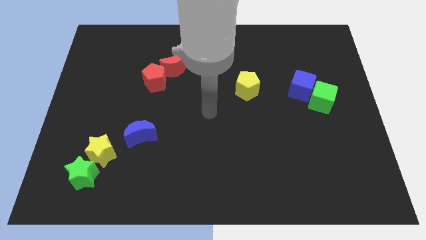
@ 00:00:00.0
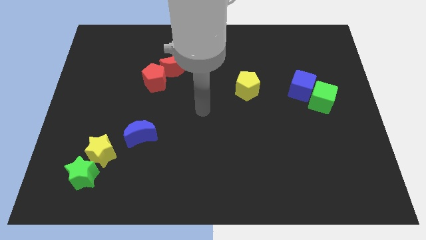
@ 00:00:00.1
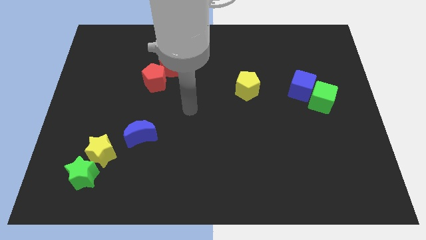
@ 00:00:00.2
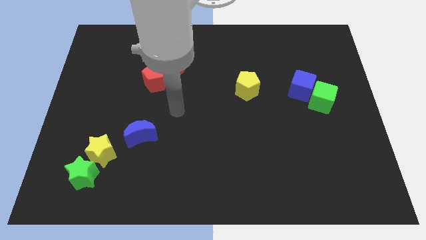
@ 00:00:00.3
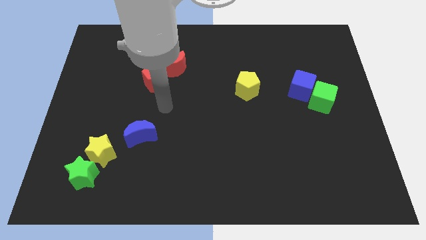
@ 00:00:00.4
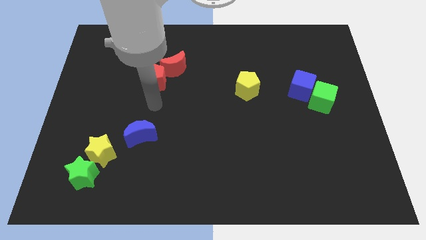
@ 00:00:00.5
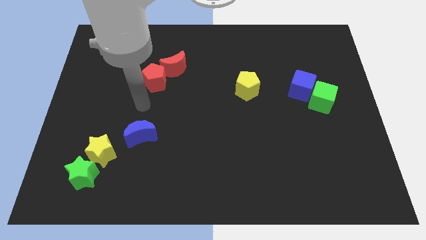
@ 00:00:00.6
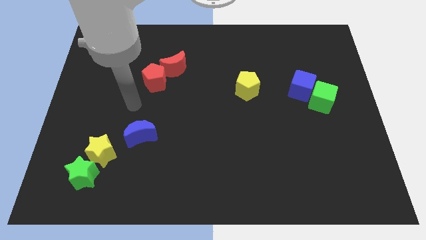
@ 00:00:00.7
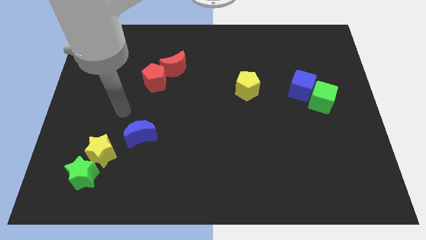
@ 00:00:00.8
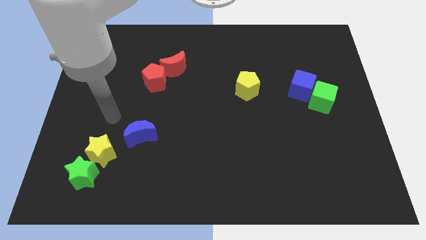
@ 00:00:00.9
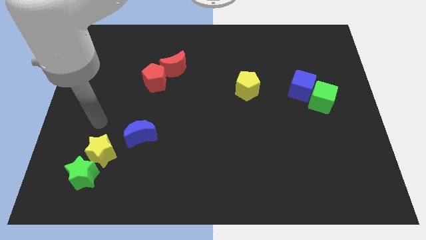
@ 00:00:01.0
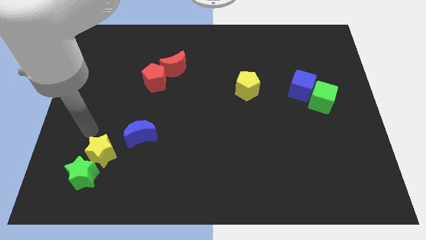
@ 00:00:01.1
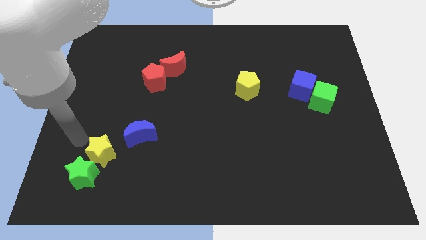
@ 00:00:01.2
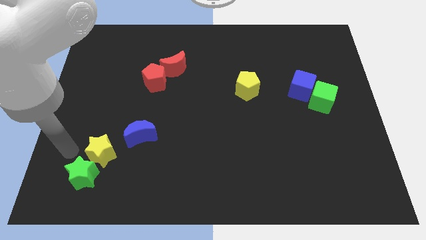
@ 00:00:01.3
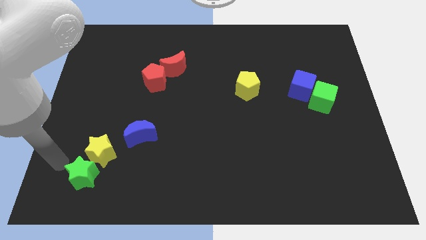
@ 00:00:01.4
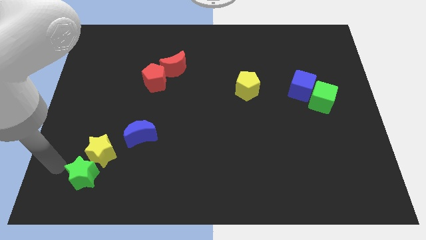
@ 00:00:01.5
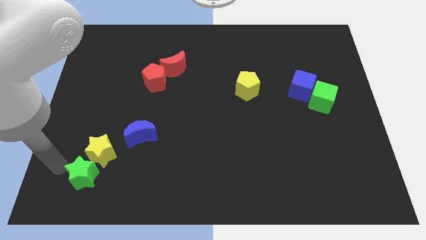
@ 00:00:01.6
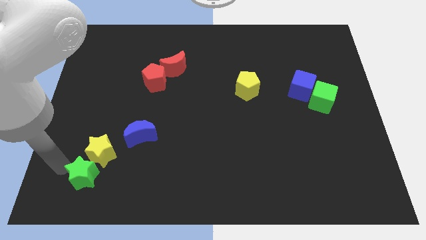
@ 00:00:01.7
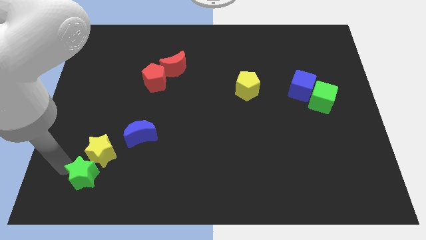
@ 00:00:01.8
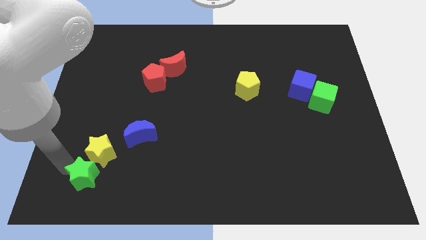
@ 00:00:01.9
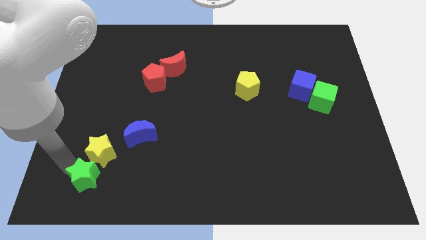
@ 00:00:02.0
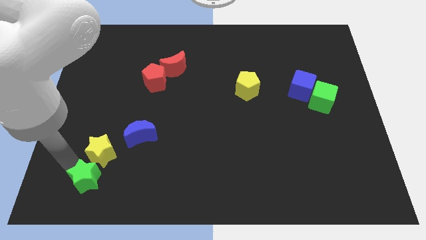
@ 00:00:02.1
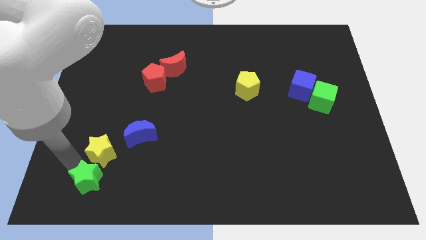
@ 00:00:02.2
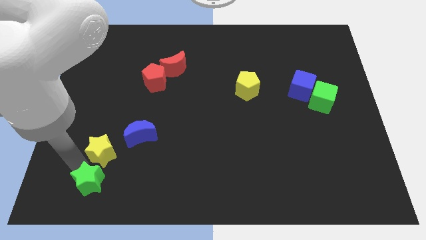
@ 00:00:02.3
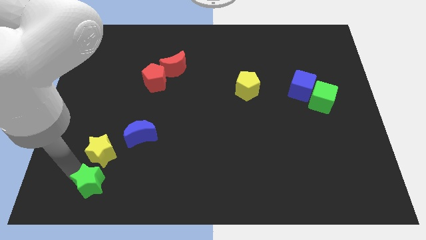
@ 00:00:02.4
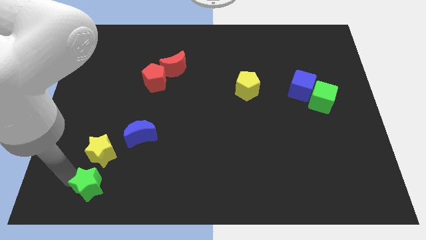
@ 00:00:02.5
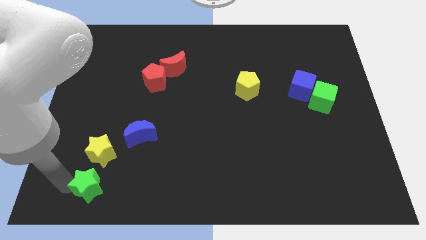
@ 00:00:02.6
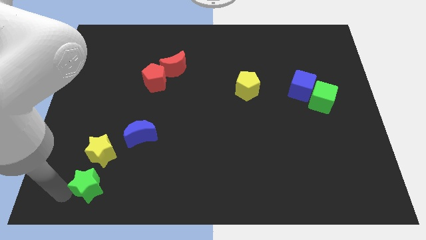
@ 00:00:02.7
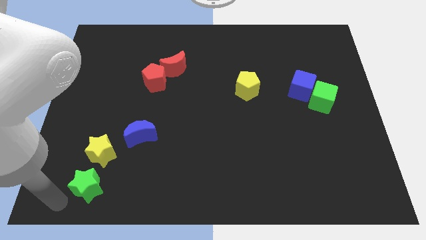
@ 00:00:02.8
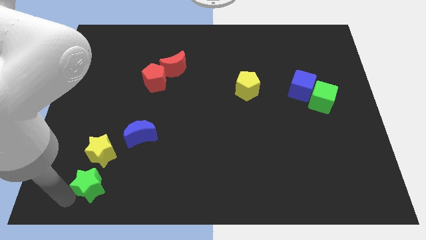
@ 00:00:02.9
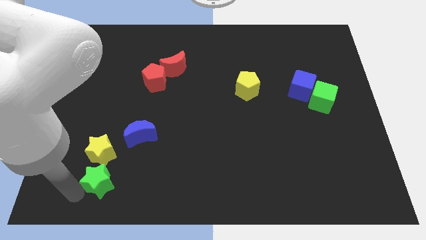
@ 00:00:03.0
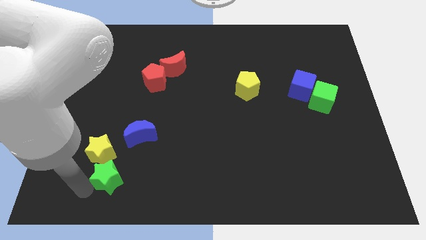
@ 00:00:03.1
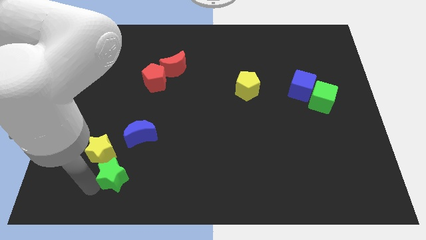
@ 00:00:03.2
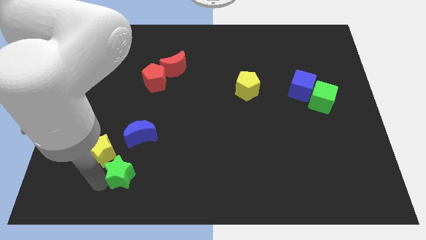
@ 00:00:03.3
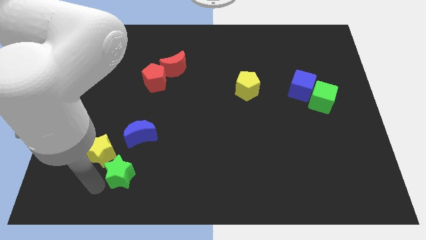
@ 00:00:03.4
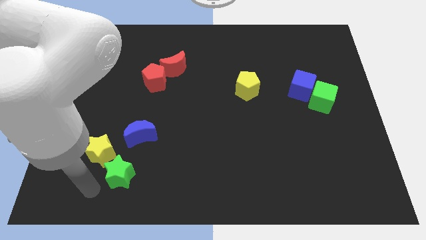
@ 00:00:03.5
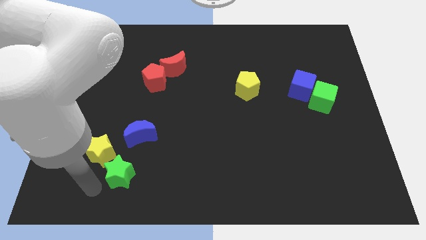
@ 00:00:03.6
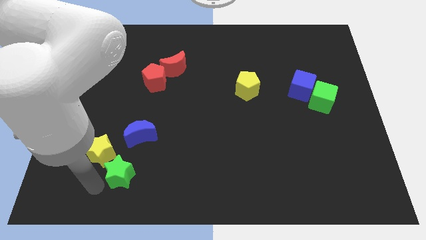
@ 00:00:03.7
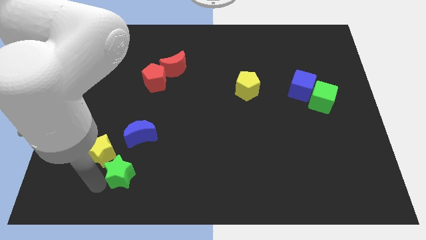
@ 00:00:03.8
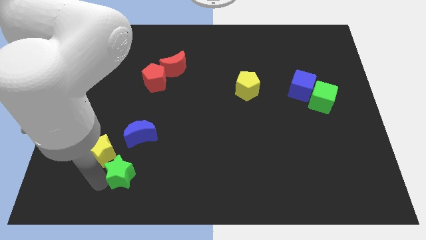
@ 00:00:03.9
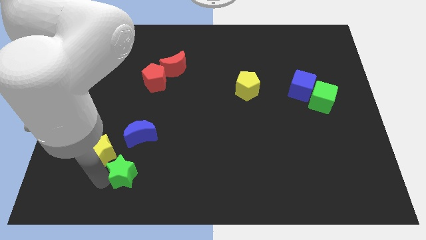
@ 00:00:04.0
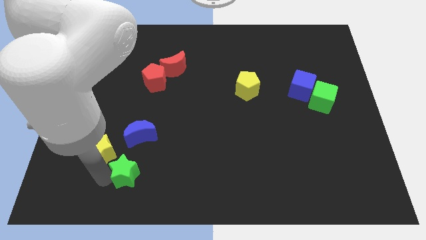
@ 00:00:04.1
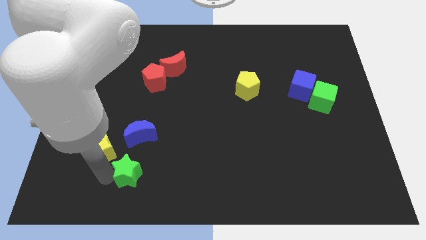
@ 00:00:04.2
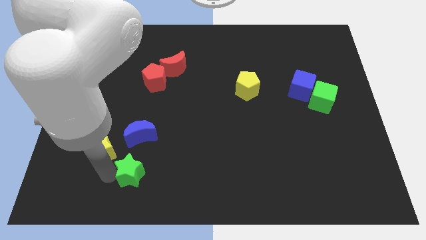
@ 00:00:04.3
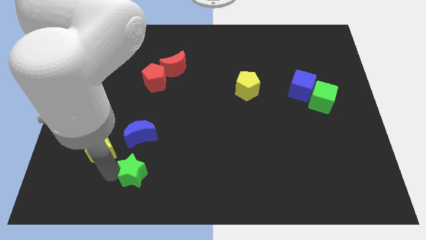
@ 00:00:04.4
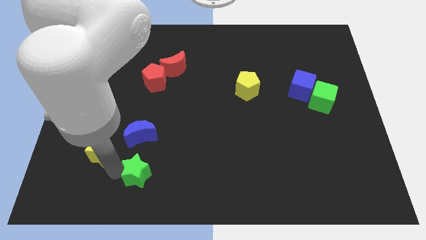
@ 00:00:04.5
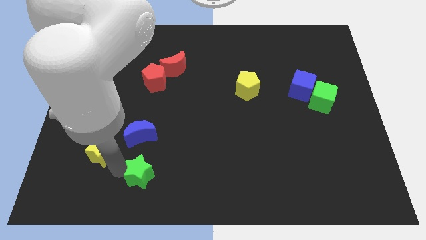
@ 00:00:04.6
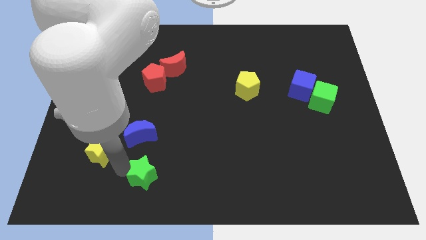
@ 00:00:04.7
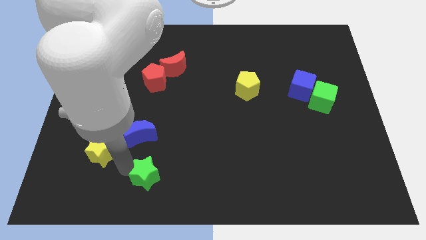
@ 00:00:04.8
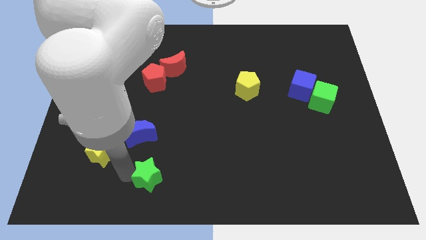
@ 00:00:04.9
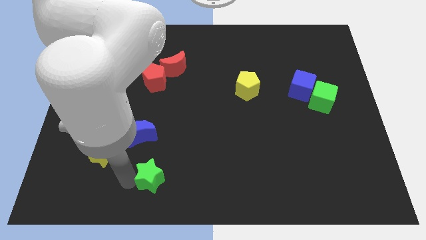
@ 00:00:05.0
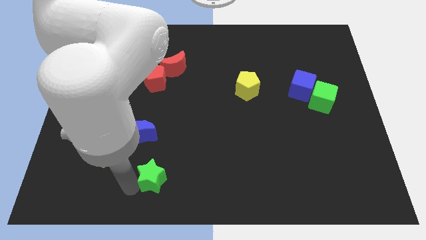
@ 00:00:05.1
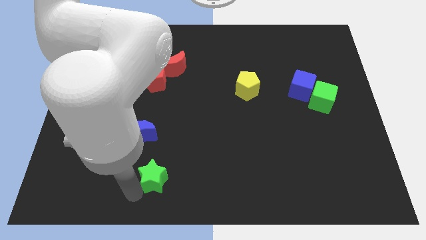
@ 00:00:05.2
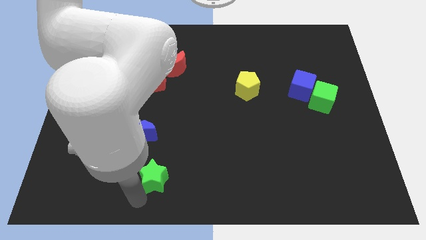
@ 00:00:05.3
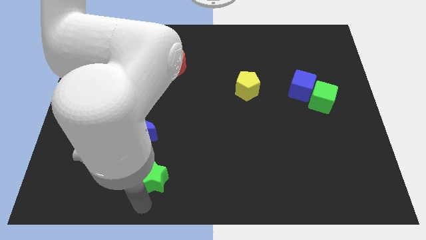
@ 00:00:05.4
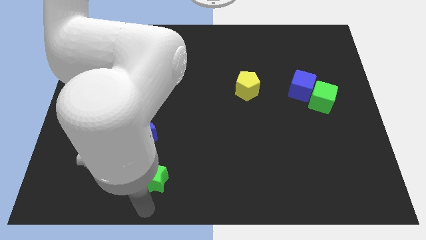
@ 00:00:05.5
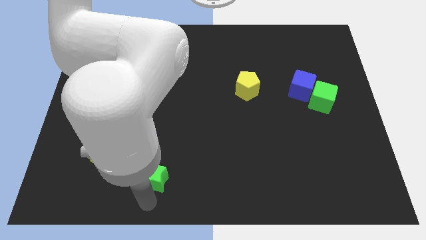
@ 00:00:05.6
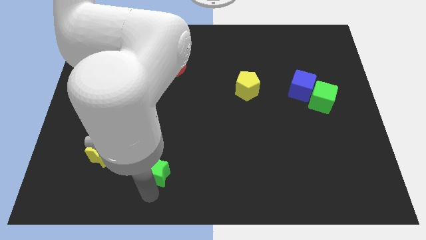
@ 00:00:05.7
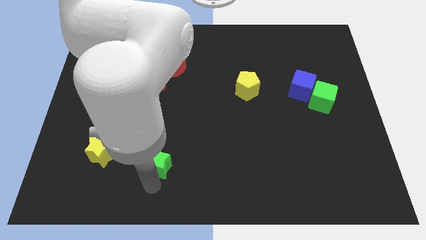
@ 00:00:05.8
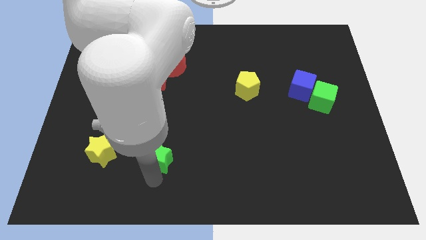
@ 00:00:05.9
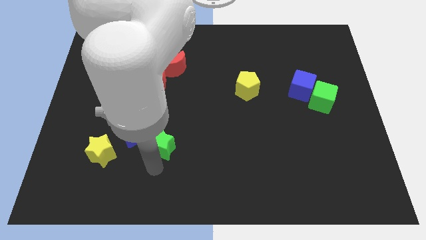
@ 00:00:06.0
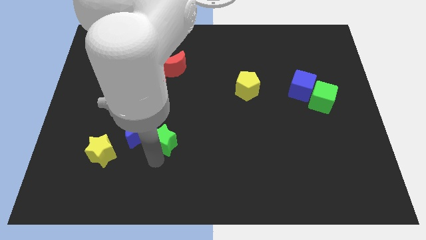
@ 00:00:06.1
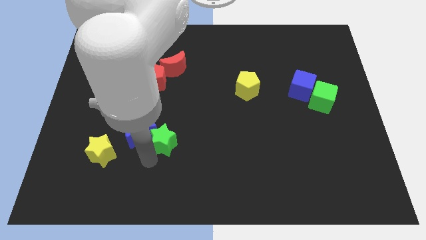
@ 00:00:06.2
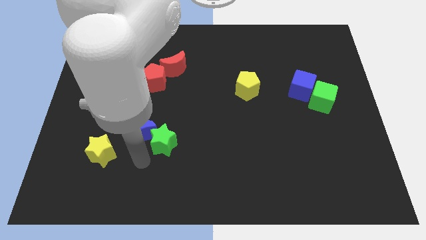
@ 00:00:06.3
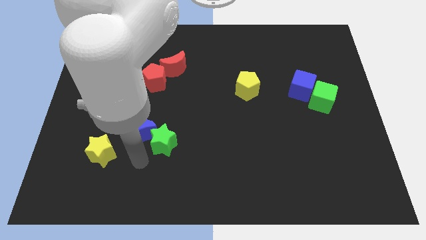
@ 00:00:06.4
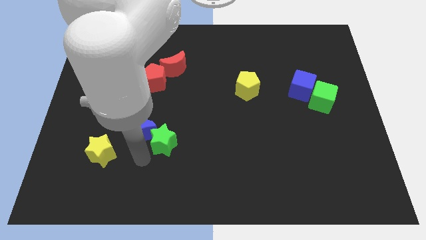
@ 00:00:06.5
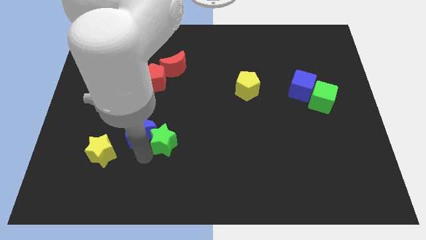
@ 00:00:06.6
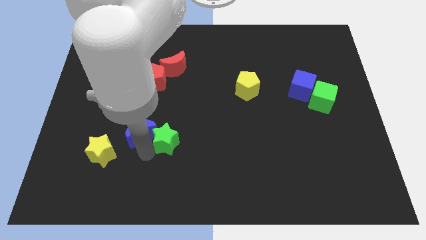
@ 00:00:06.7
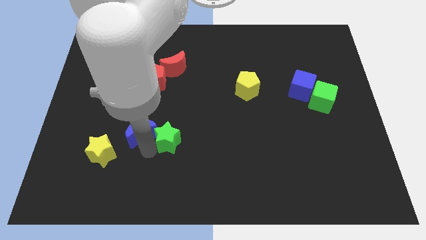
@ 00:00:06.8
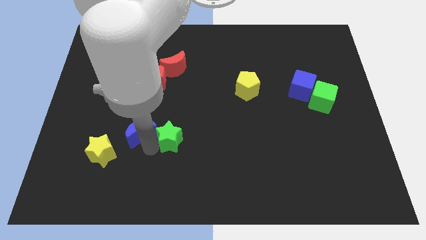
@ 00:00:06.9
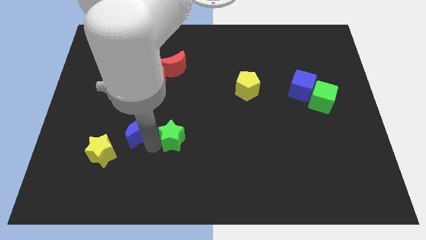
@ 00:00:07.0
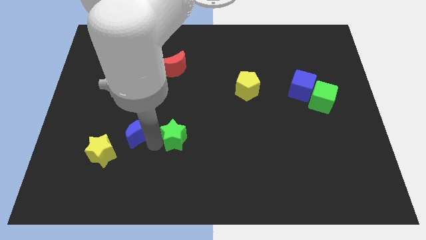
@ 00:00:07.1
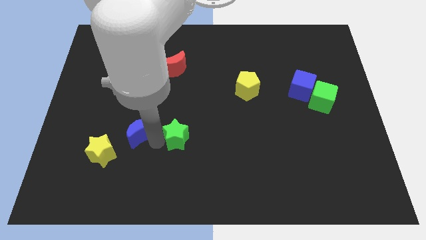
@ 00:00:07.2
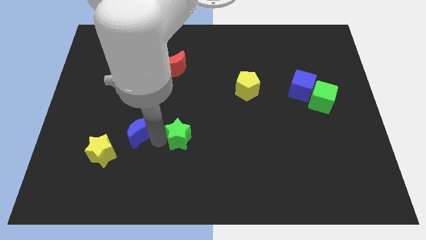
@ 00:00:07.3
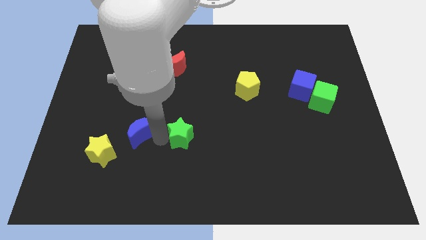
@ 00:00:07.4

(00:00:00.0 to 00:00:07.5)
move the green star to the middle of the board
